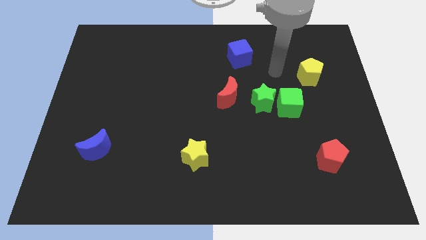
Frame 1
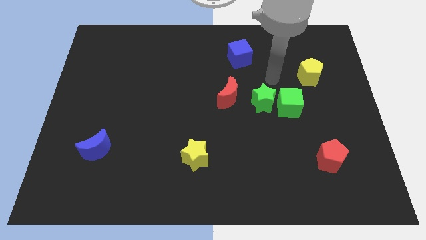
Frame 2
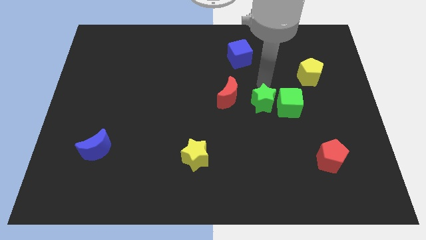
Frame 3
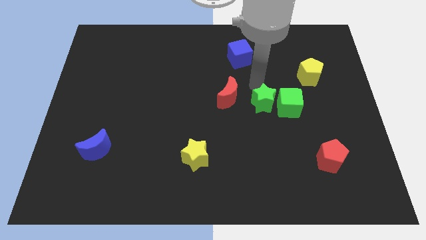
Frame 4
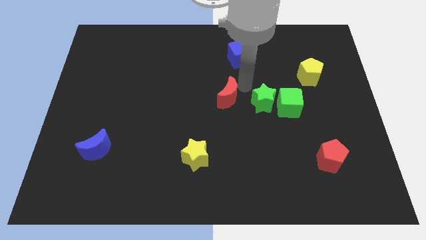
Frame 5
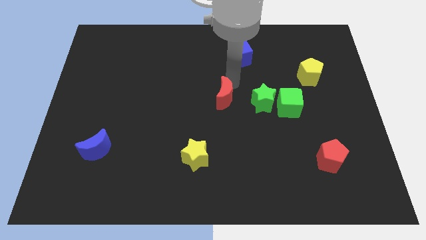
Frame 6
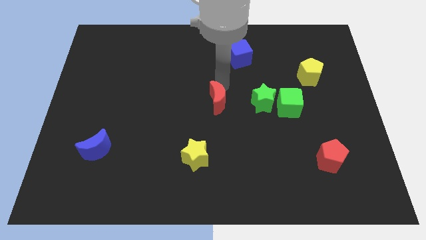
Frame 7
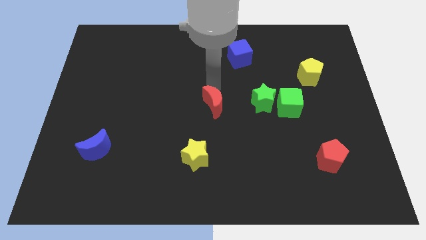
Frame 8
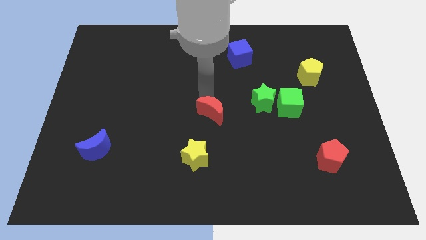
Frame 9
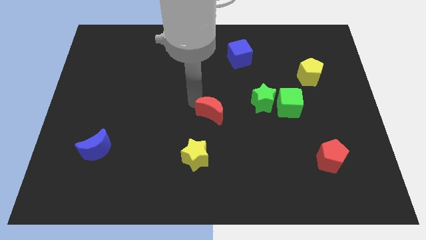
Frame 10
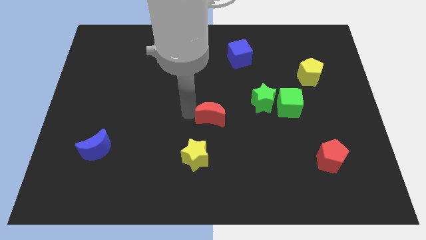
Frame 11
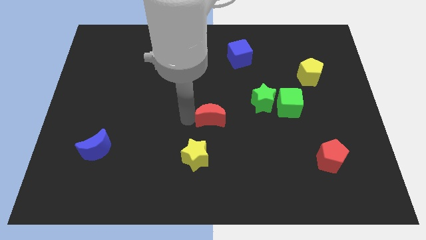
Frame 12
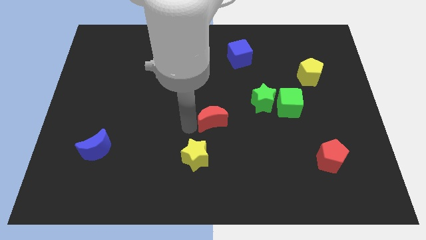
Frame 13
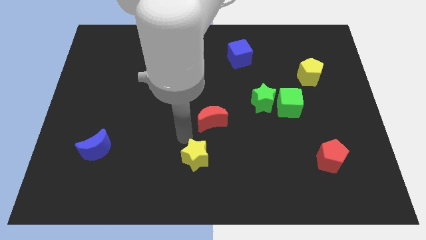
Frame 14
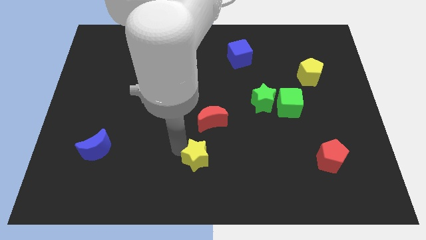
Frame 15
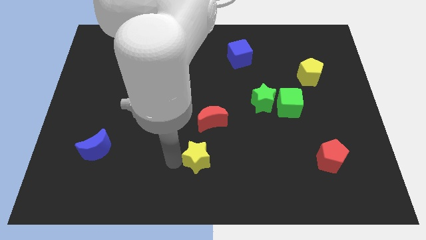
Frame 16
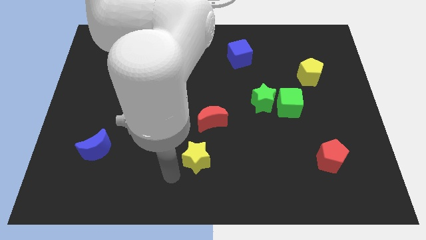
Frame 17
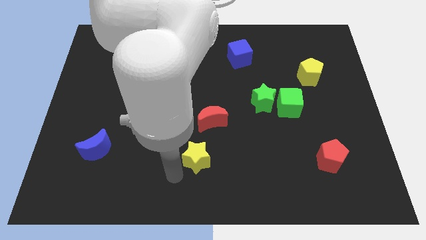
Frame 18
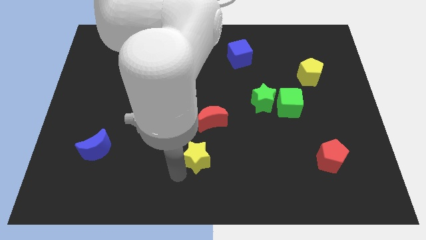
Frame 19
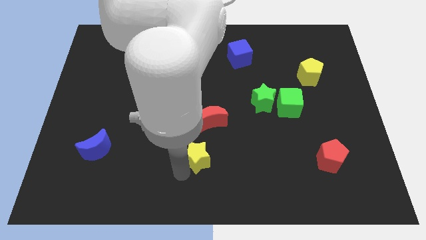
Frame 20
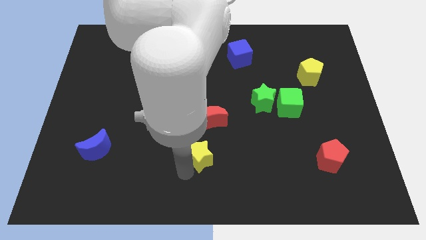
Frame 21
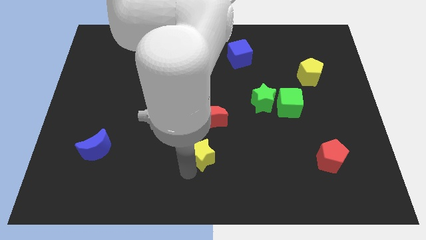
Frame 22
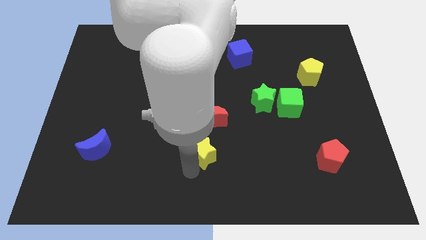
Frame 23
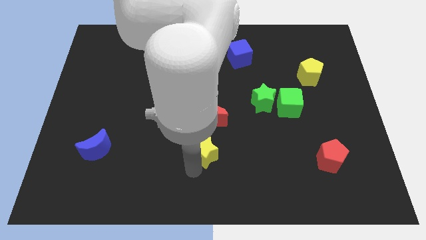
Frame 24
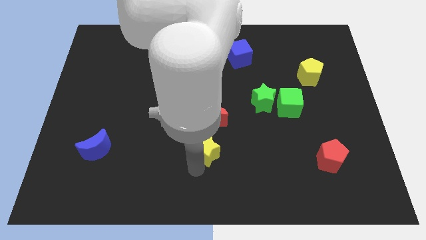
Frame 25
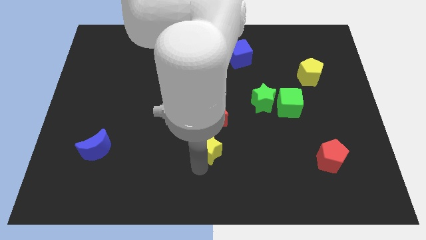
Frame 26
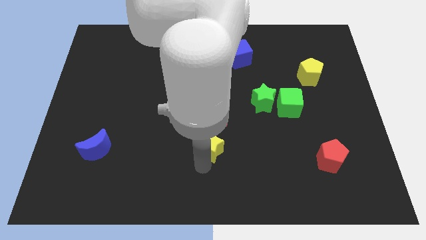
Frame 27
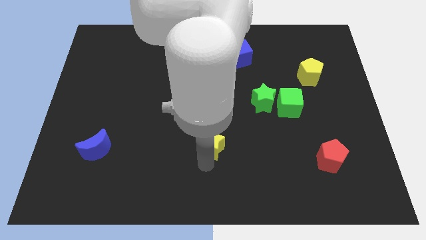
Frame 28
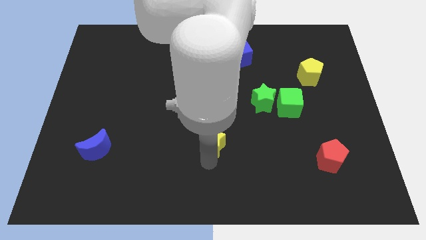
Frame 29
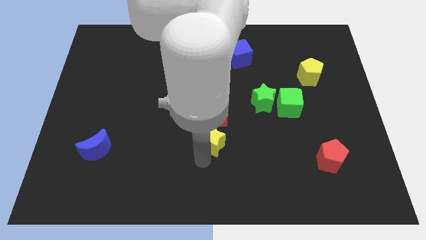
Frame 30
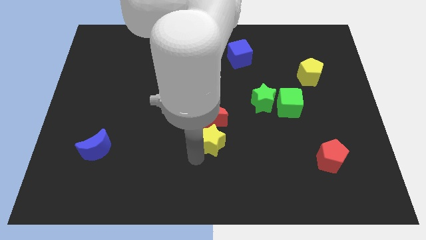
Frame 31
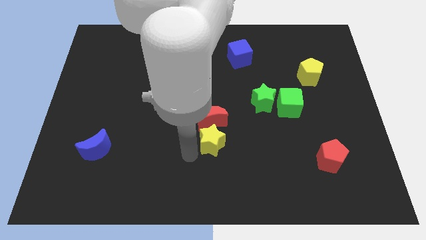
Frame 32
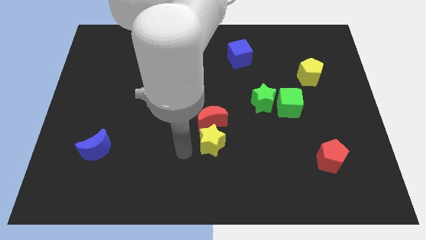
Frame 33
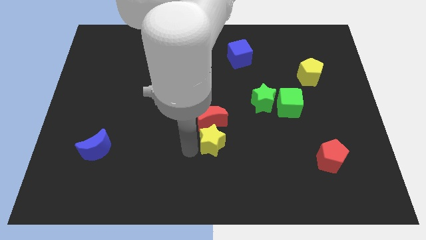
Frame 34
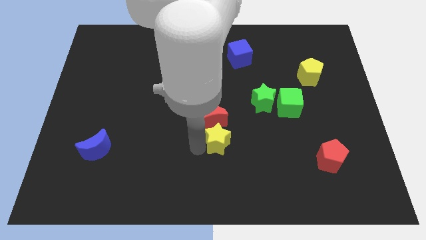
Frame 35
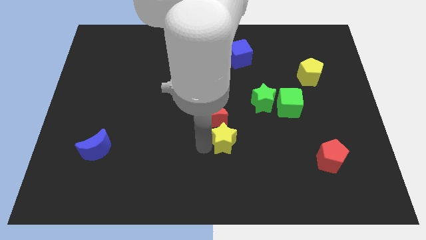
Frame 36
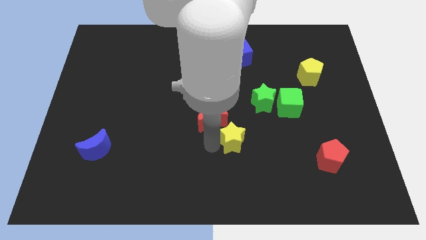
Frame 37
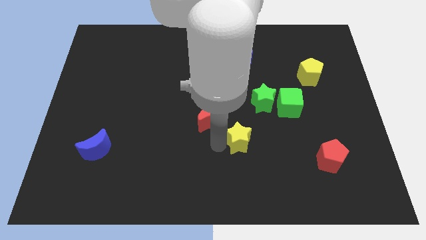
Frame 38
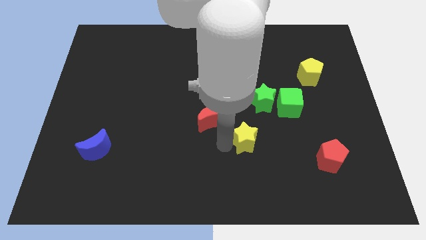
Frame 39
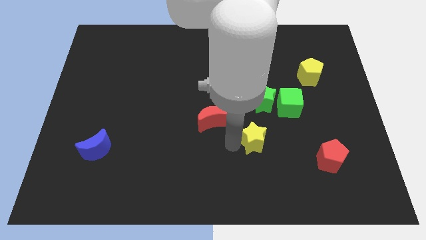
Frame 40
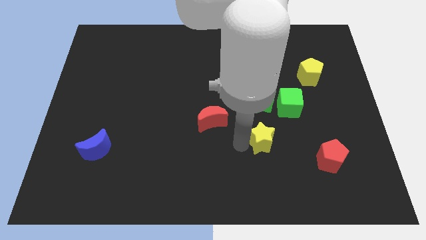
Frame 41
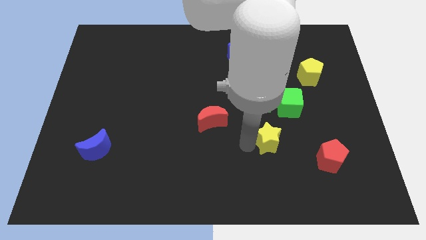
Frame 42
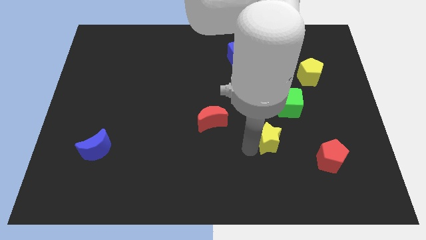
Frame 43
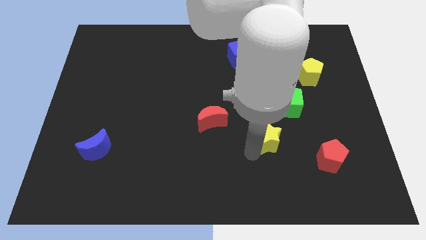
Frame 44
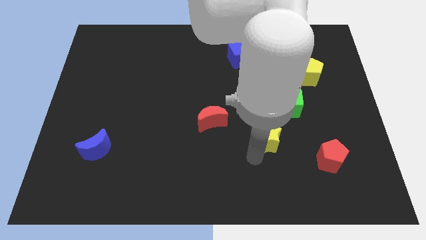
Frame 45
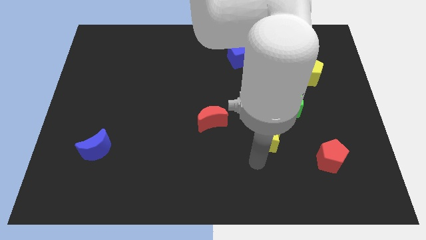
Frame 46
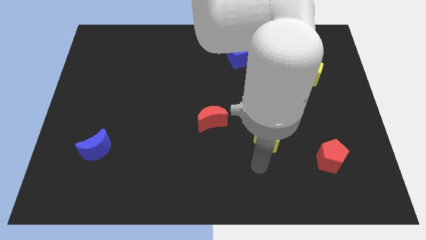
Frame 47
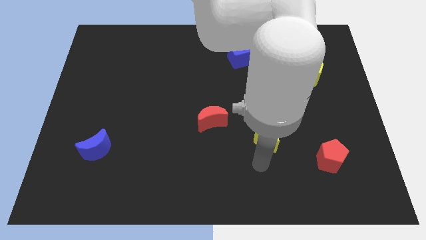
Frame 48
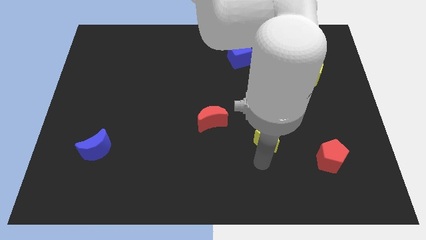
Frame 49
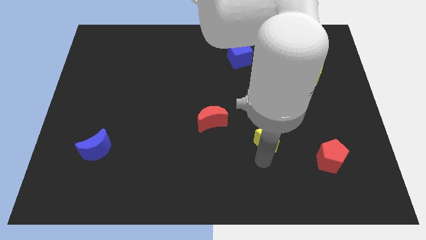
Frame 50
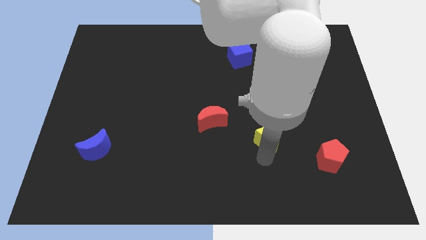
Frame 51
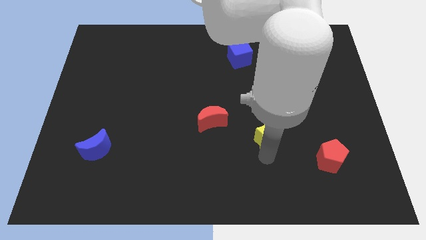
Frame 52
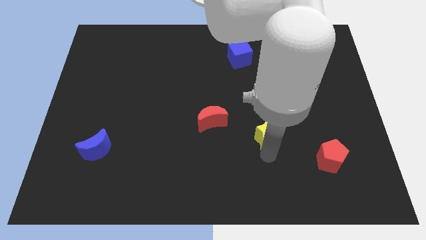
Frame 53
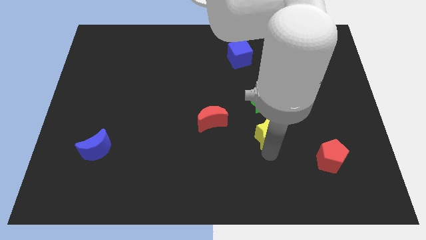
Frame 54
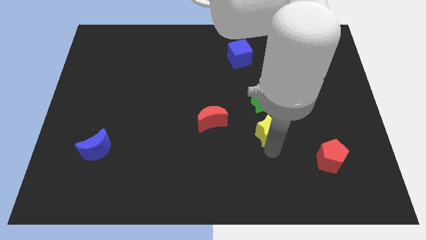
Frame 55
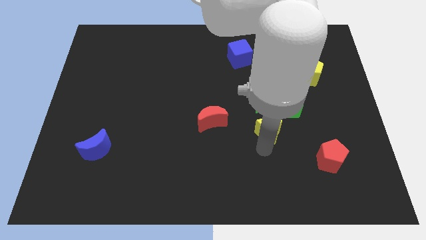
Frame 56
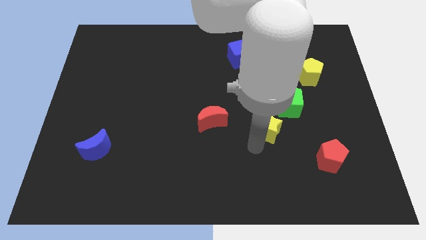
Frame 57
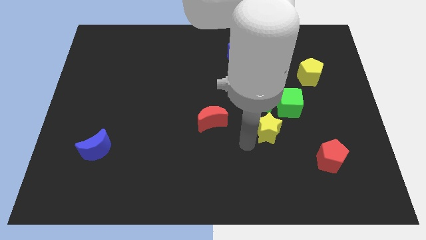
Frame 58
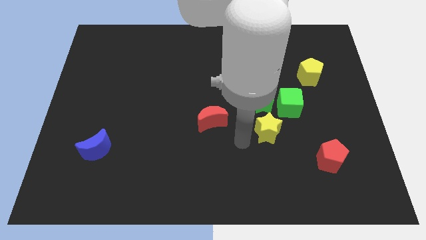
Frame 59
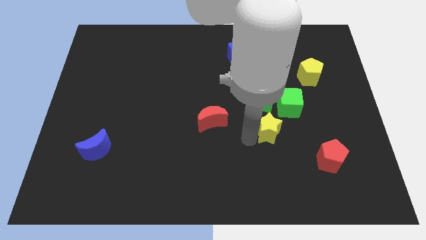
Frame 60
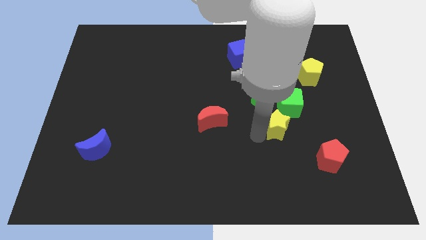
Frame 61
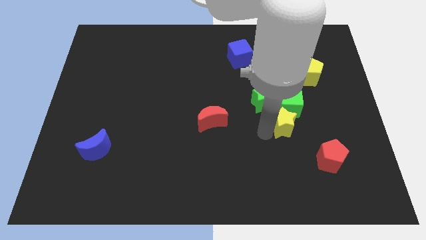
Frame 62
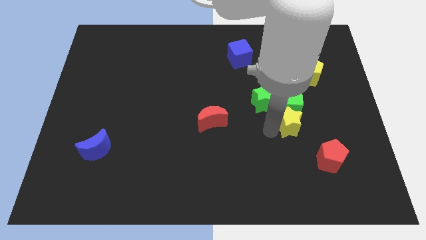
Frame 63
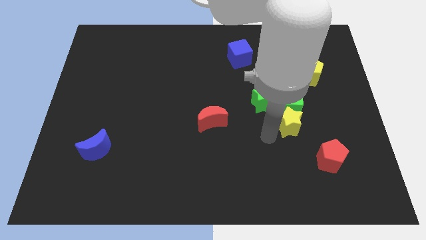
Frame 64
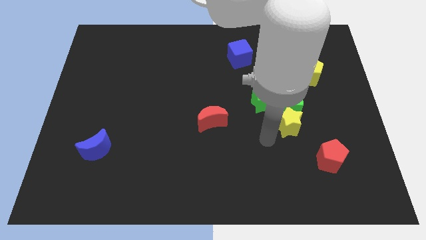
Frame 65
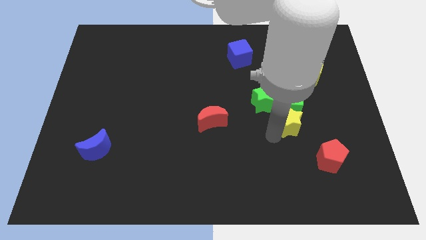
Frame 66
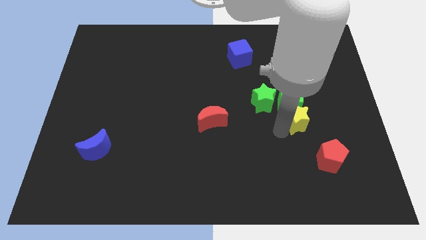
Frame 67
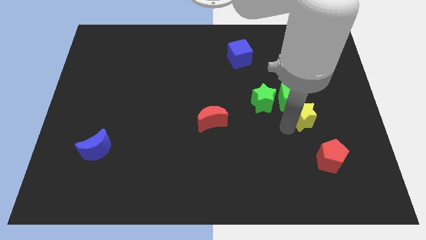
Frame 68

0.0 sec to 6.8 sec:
put the yellow star to the bottom of the yellow pentagon
